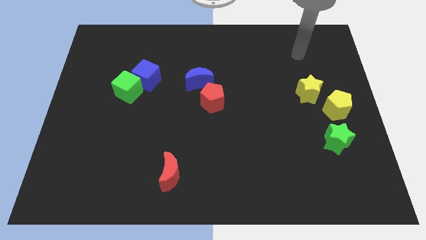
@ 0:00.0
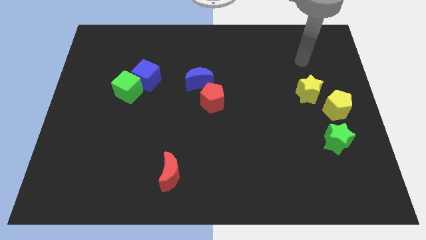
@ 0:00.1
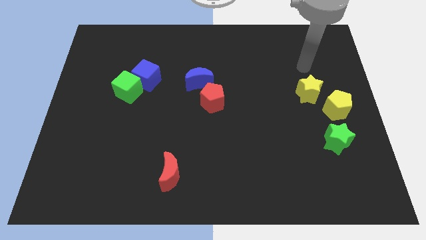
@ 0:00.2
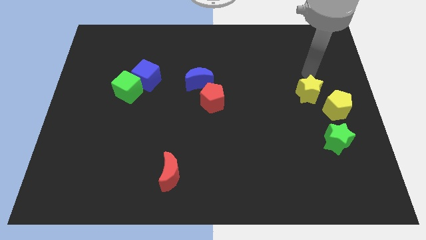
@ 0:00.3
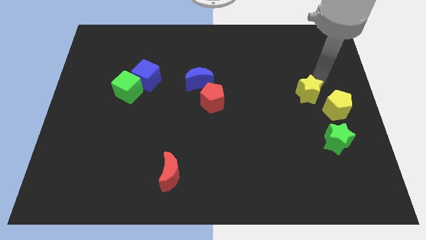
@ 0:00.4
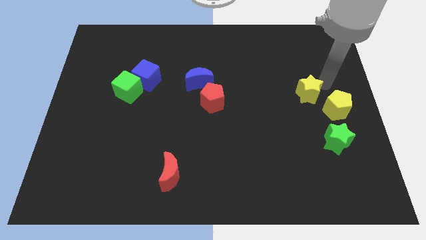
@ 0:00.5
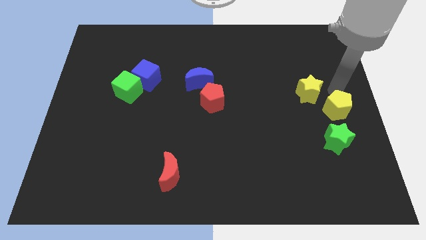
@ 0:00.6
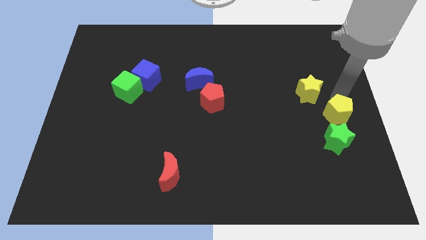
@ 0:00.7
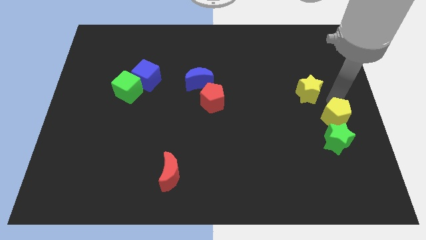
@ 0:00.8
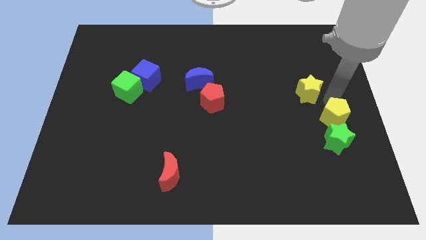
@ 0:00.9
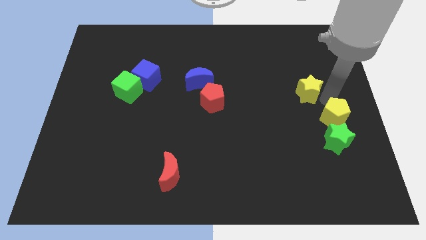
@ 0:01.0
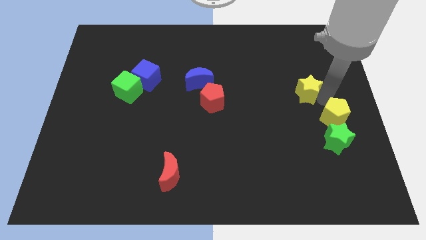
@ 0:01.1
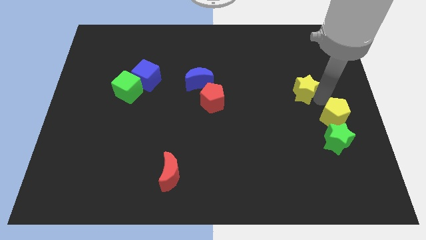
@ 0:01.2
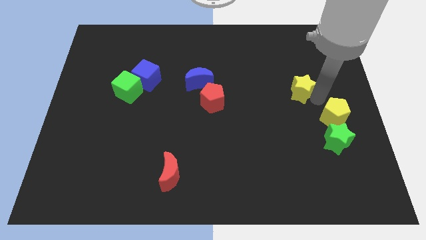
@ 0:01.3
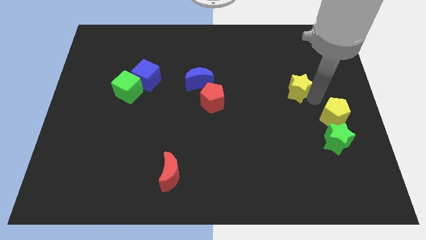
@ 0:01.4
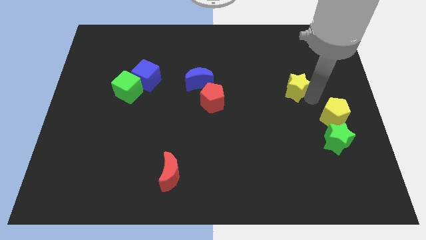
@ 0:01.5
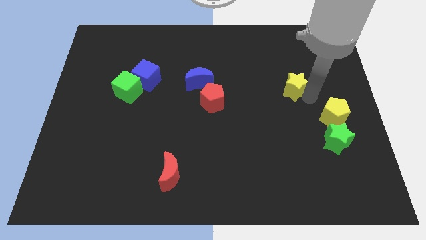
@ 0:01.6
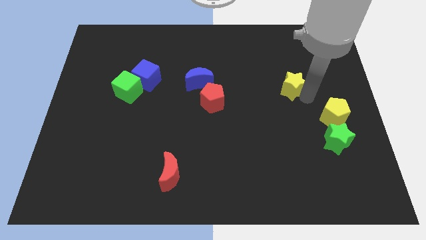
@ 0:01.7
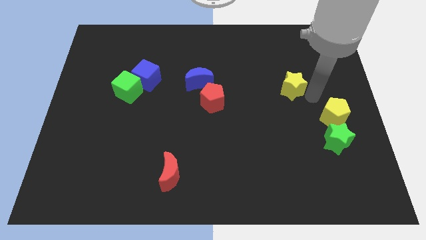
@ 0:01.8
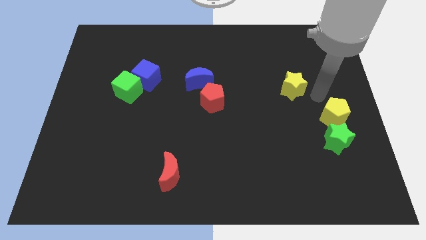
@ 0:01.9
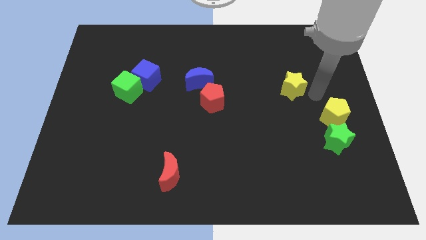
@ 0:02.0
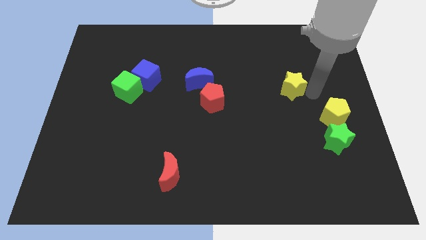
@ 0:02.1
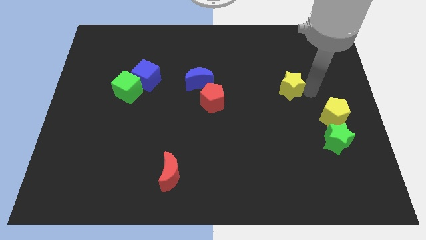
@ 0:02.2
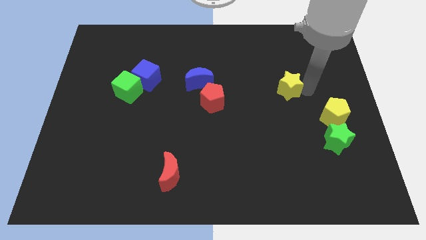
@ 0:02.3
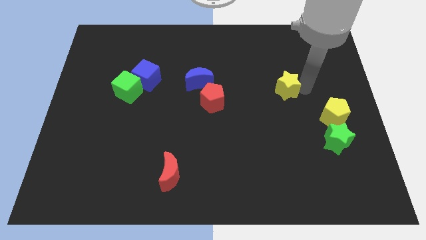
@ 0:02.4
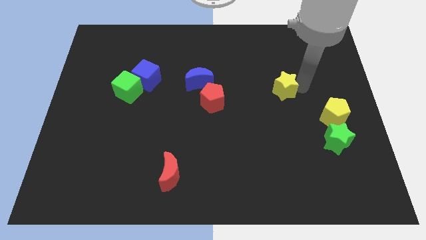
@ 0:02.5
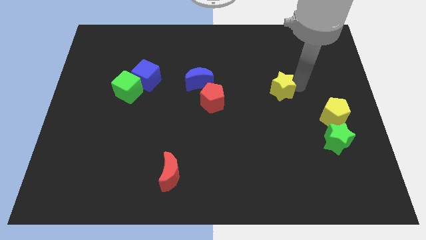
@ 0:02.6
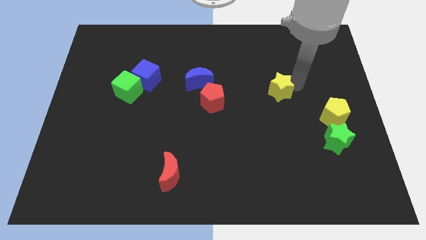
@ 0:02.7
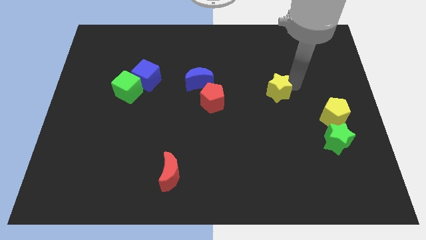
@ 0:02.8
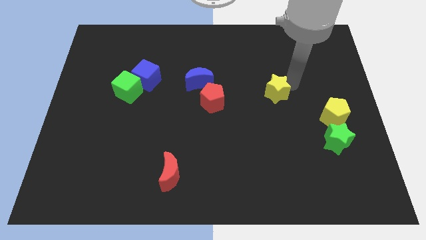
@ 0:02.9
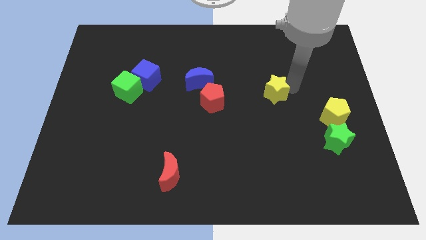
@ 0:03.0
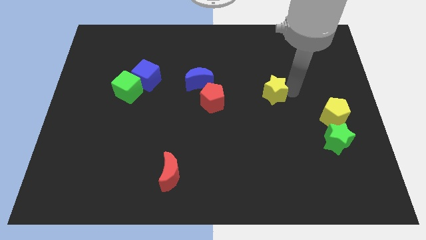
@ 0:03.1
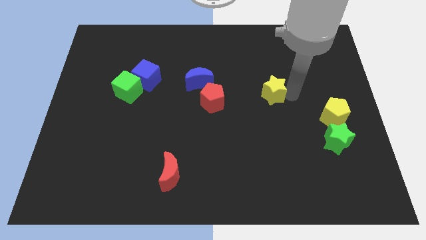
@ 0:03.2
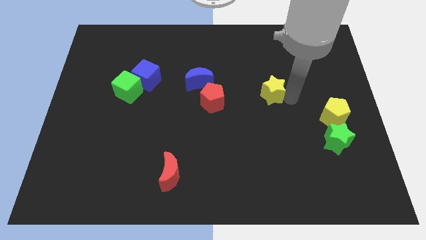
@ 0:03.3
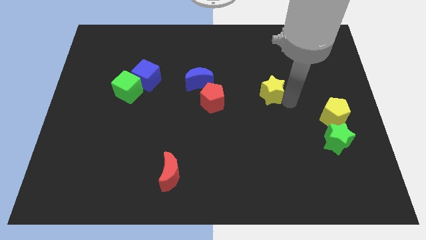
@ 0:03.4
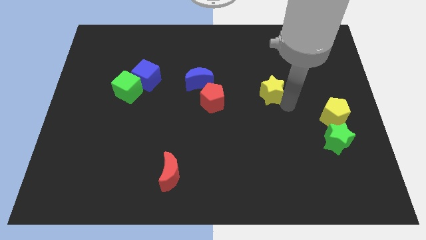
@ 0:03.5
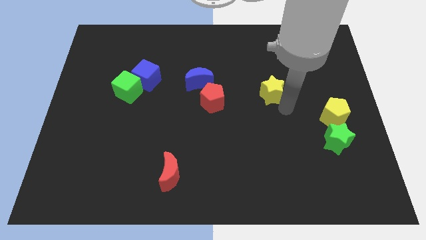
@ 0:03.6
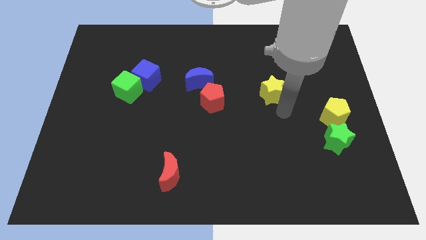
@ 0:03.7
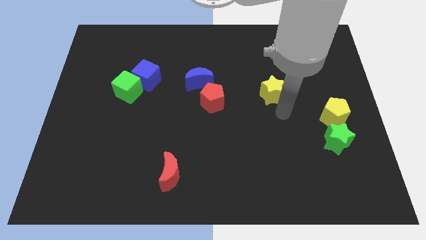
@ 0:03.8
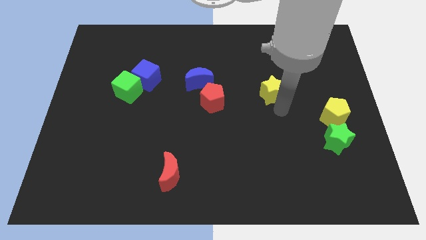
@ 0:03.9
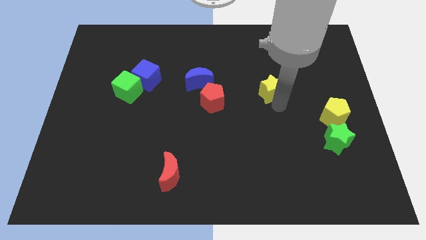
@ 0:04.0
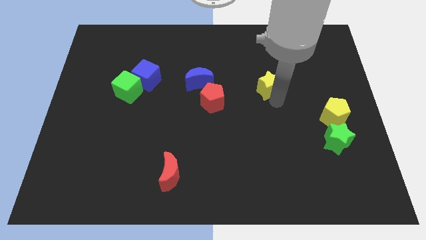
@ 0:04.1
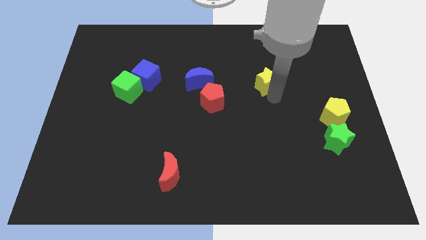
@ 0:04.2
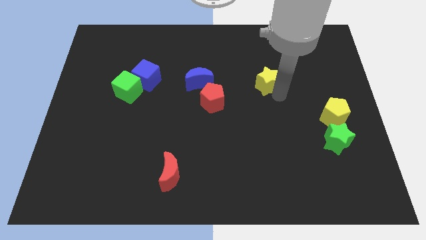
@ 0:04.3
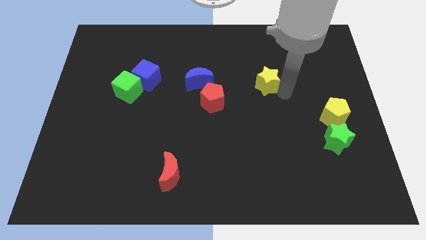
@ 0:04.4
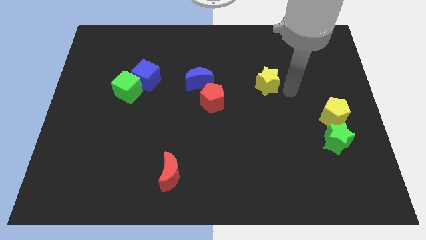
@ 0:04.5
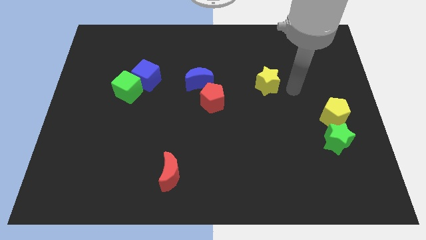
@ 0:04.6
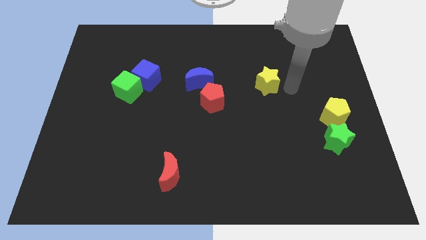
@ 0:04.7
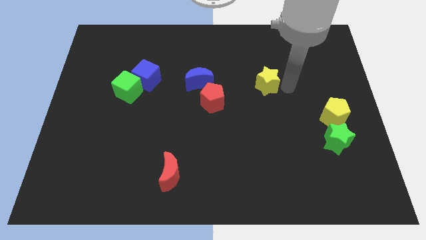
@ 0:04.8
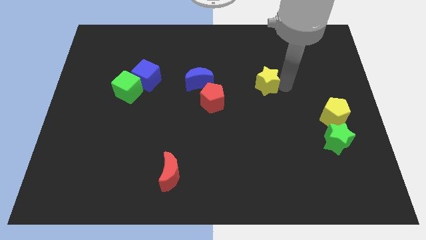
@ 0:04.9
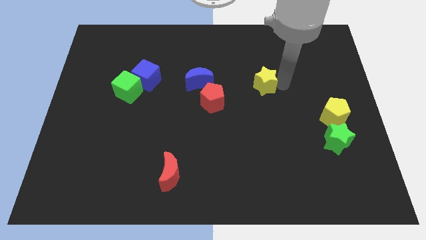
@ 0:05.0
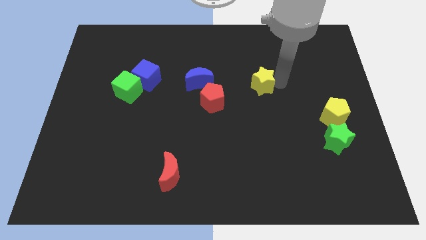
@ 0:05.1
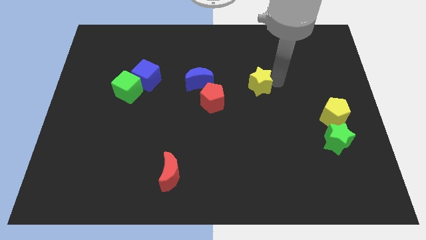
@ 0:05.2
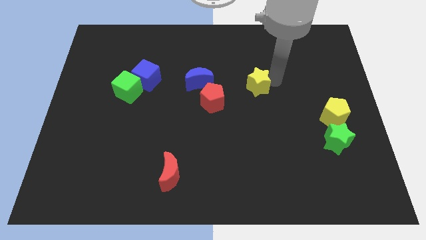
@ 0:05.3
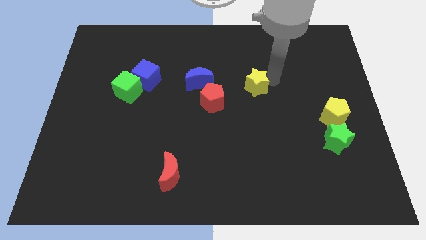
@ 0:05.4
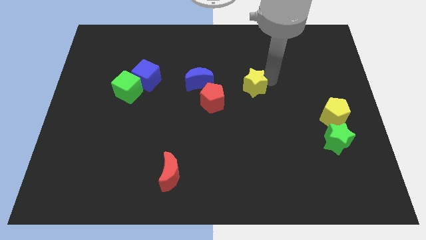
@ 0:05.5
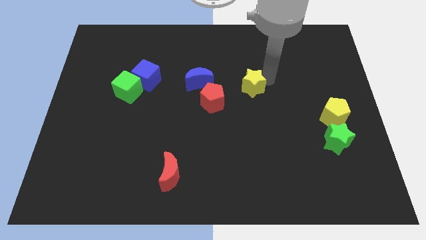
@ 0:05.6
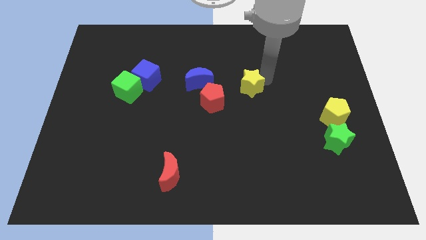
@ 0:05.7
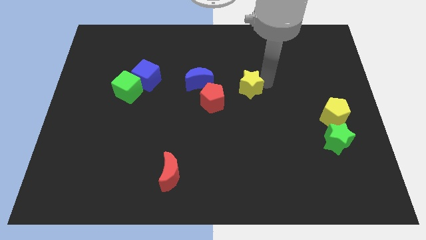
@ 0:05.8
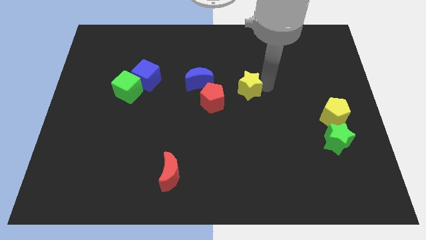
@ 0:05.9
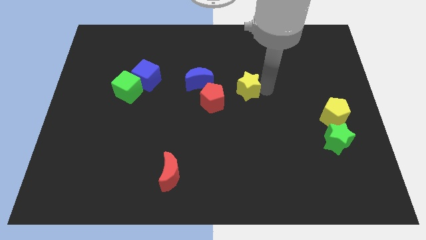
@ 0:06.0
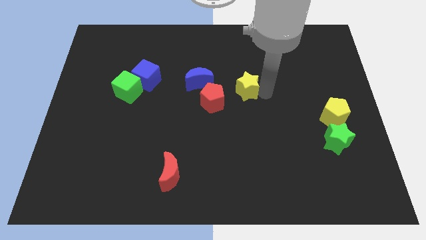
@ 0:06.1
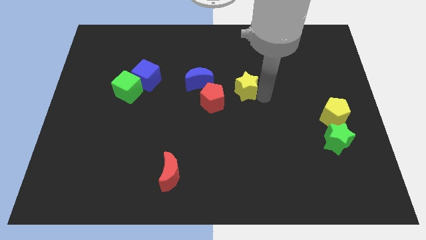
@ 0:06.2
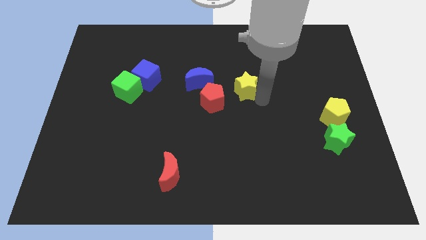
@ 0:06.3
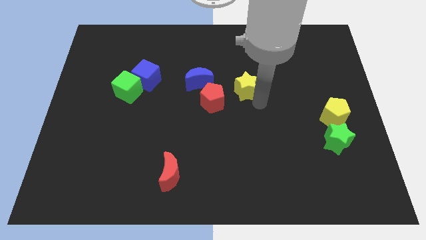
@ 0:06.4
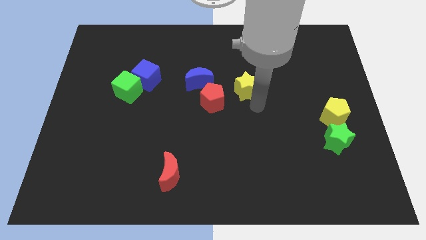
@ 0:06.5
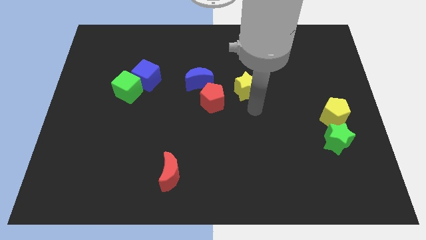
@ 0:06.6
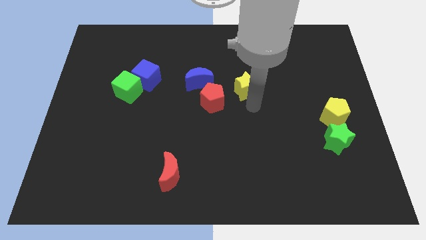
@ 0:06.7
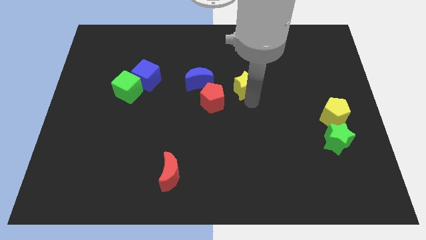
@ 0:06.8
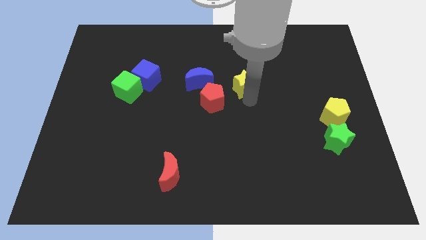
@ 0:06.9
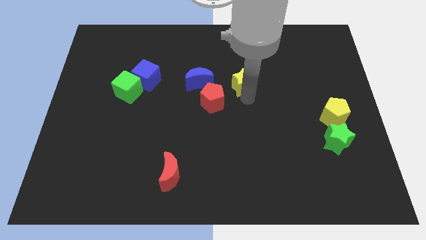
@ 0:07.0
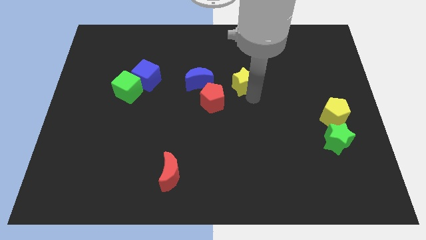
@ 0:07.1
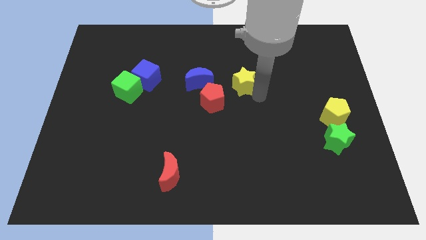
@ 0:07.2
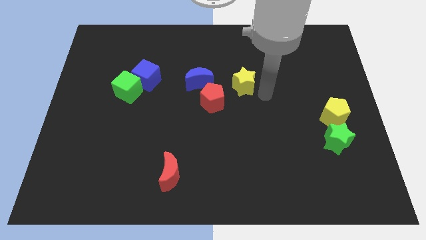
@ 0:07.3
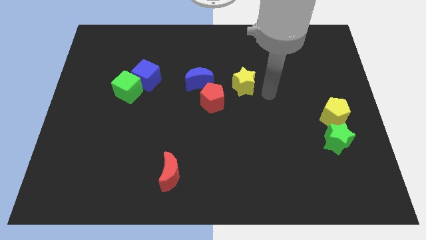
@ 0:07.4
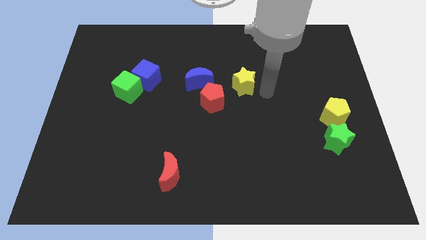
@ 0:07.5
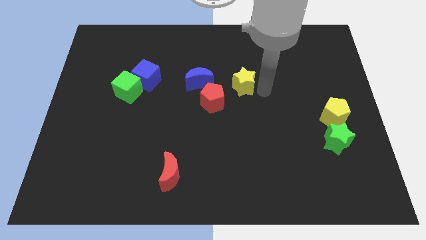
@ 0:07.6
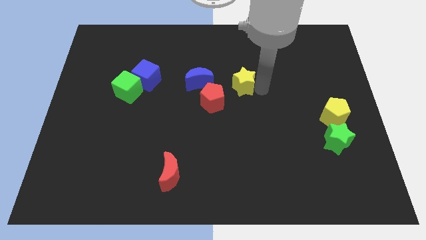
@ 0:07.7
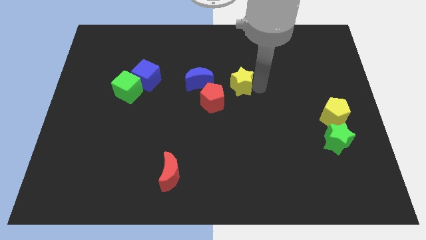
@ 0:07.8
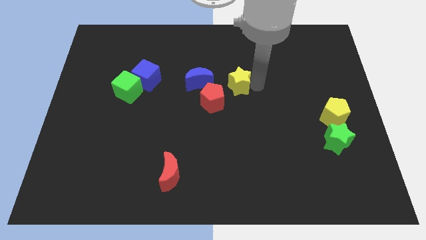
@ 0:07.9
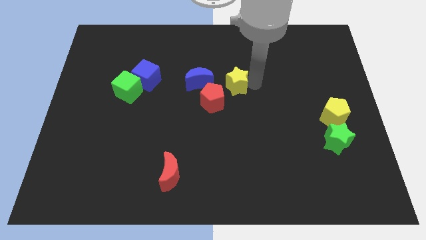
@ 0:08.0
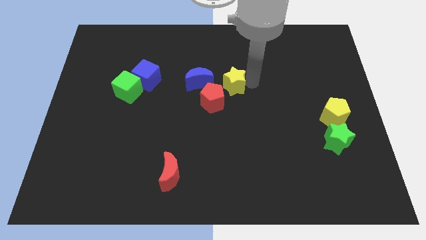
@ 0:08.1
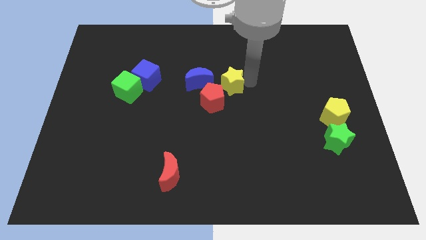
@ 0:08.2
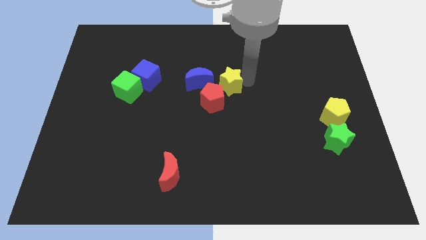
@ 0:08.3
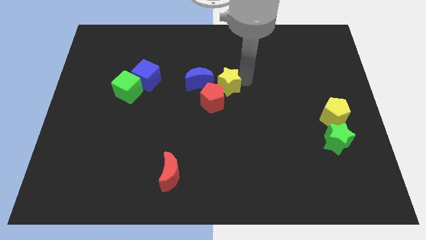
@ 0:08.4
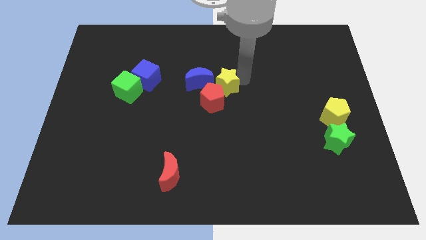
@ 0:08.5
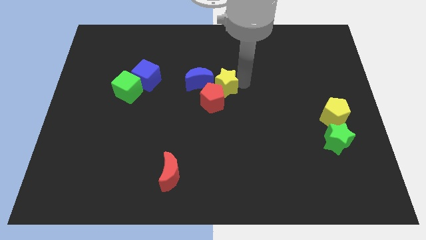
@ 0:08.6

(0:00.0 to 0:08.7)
slide the yellow star to the left
